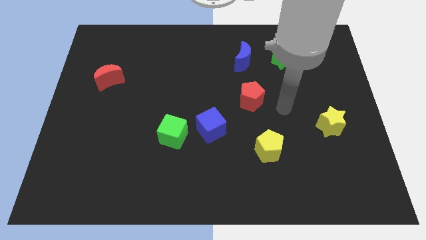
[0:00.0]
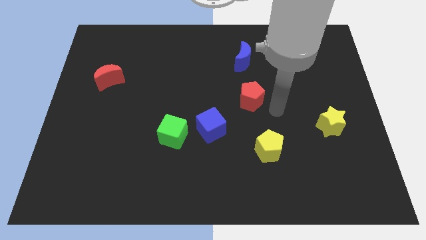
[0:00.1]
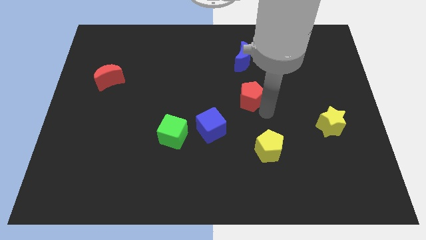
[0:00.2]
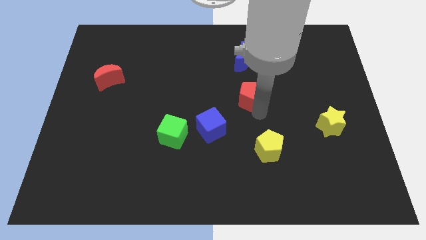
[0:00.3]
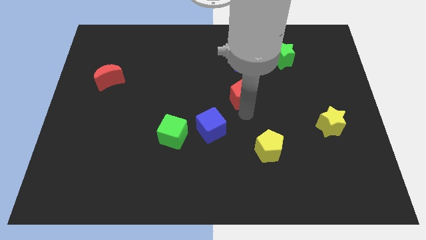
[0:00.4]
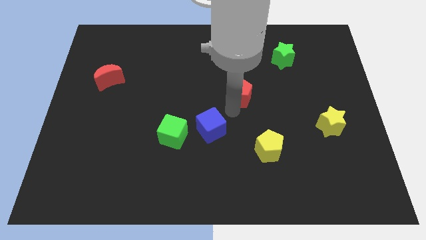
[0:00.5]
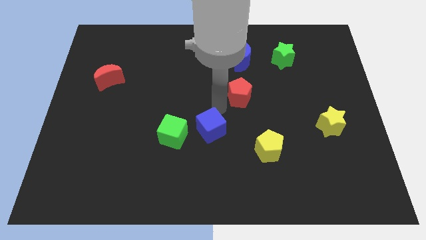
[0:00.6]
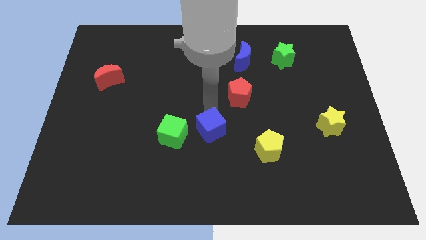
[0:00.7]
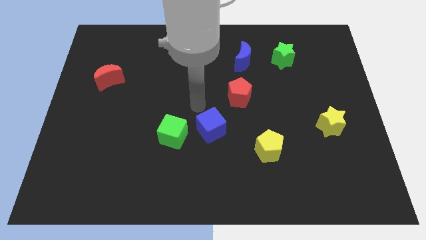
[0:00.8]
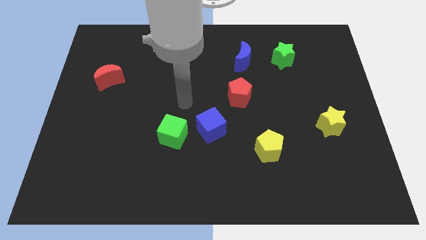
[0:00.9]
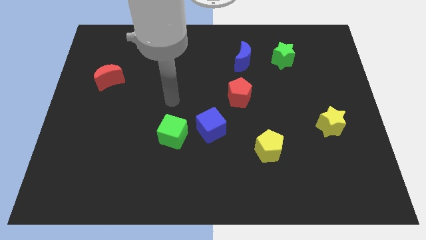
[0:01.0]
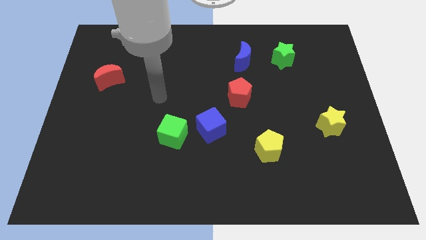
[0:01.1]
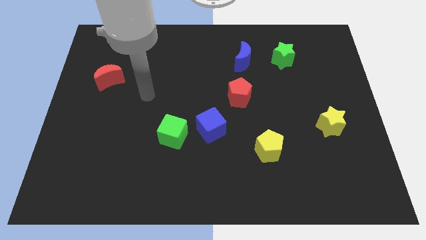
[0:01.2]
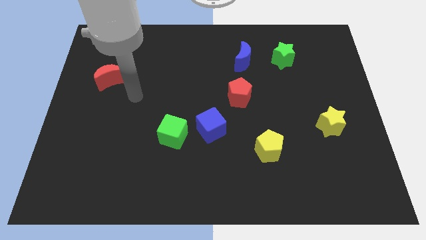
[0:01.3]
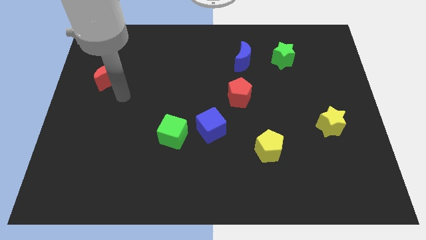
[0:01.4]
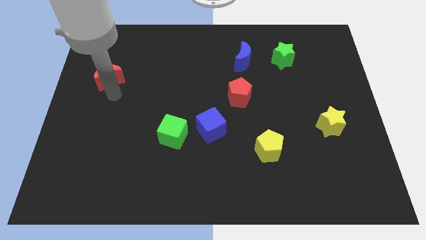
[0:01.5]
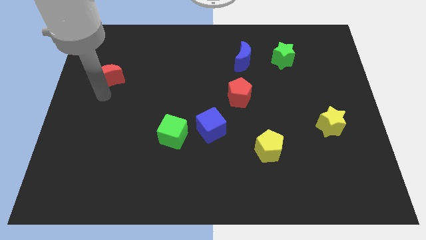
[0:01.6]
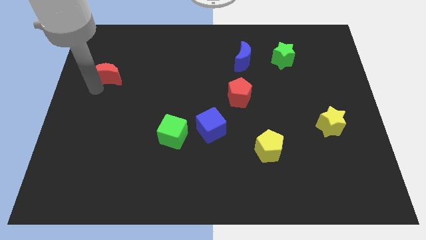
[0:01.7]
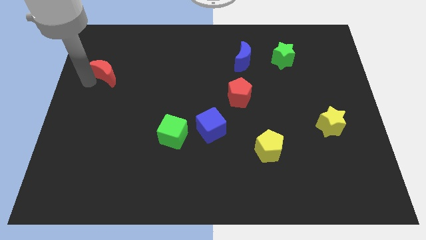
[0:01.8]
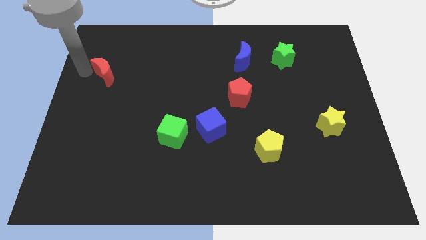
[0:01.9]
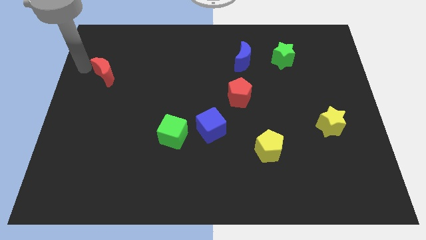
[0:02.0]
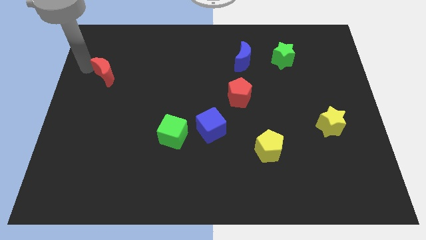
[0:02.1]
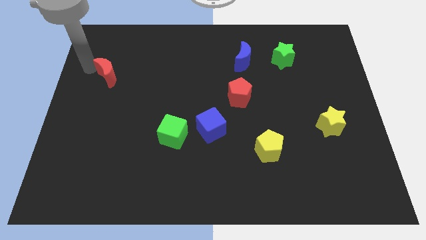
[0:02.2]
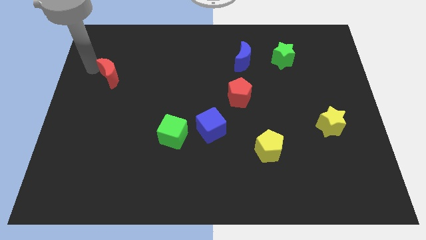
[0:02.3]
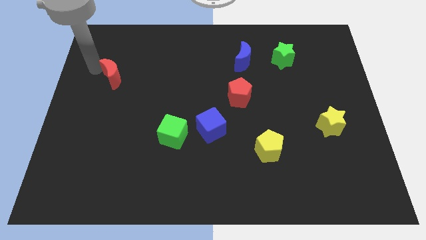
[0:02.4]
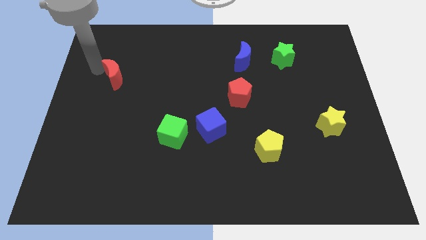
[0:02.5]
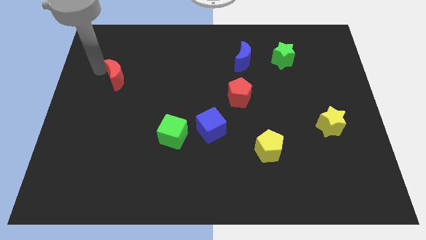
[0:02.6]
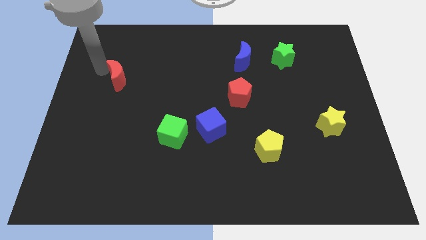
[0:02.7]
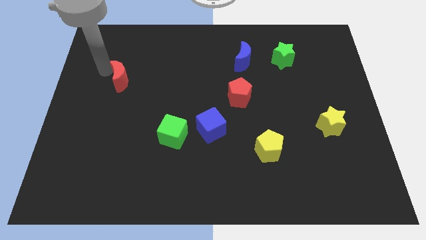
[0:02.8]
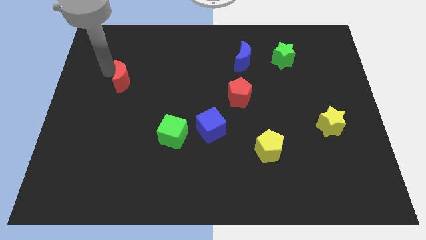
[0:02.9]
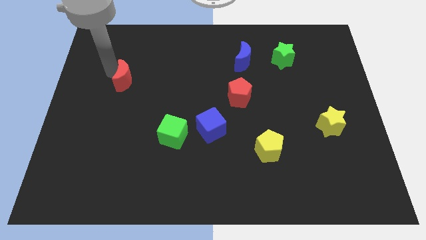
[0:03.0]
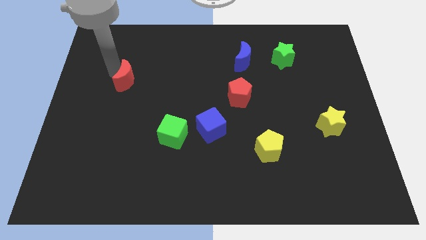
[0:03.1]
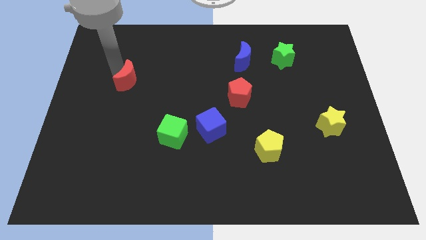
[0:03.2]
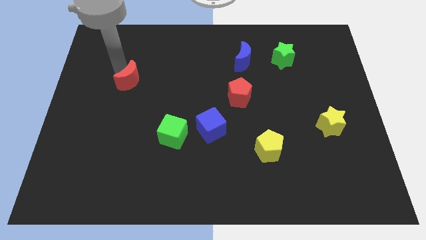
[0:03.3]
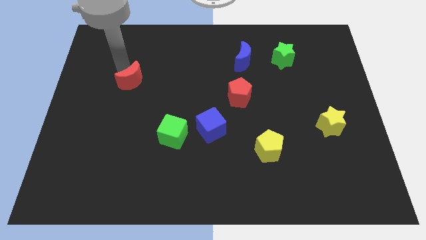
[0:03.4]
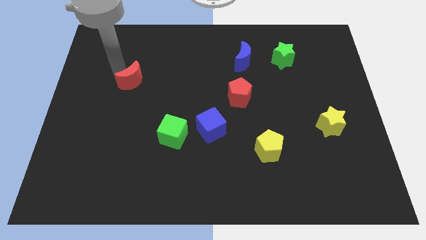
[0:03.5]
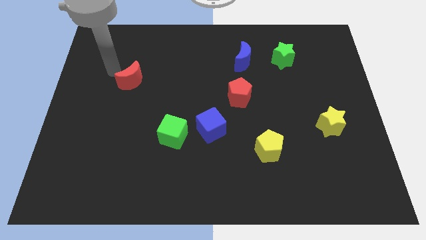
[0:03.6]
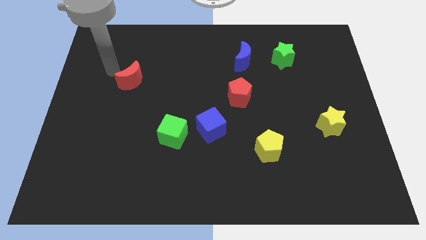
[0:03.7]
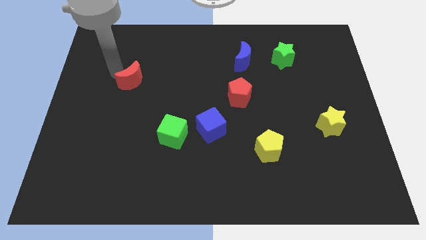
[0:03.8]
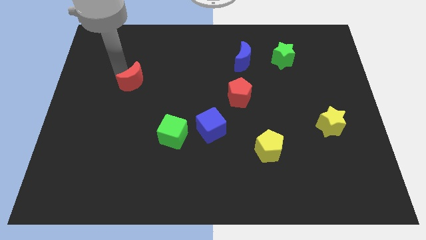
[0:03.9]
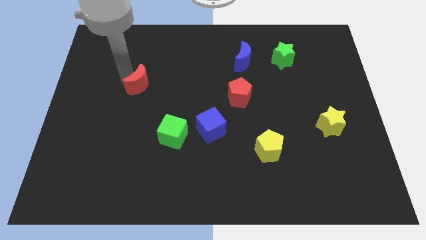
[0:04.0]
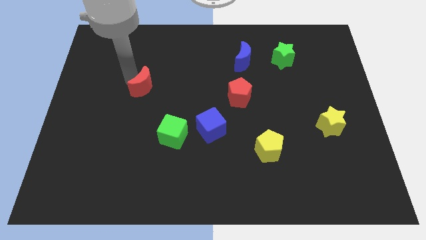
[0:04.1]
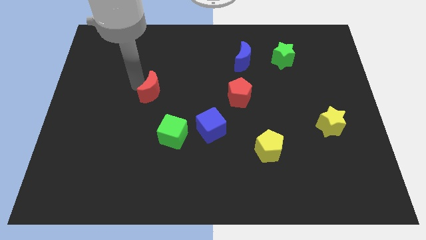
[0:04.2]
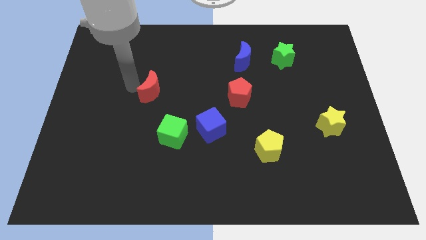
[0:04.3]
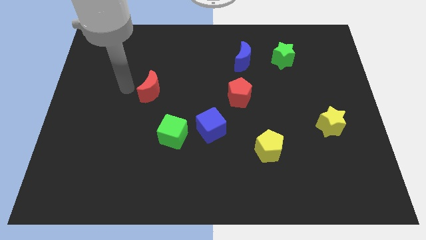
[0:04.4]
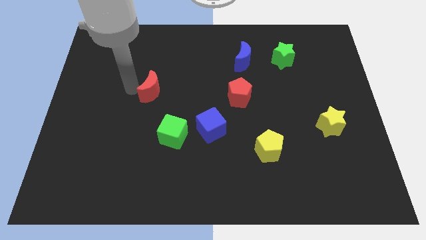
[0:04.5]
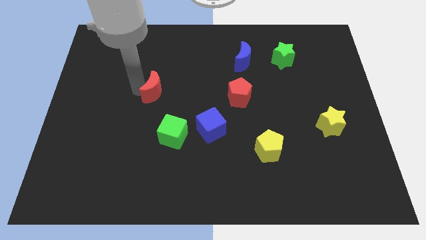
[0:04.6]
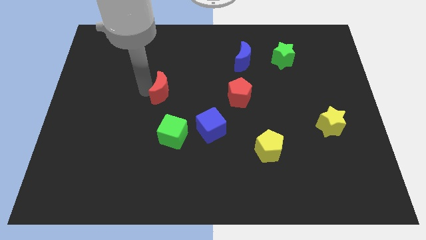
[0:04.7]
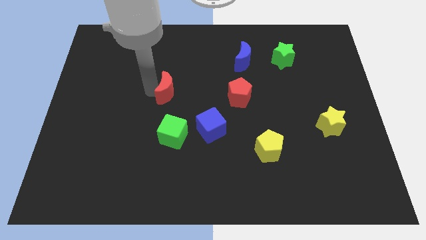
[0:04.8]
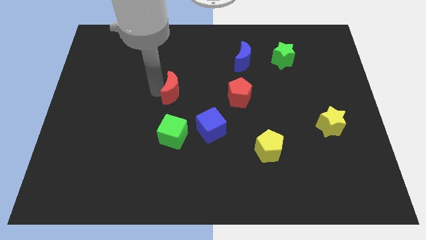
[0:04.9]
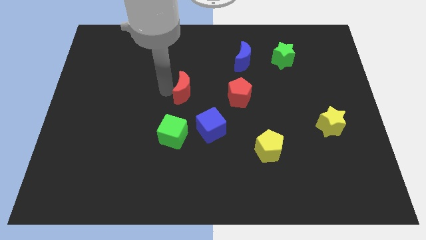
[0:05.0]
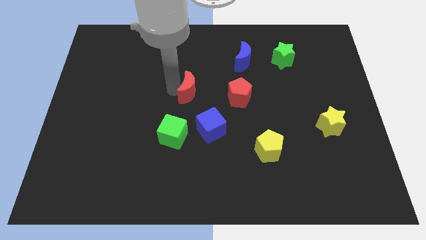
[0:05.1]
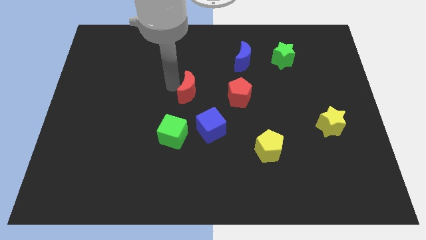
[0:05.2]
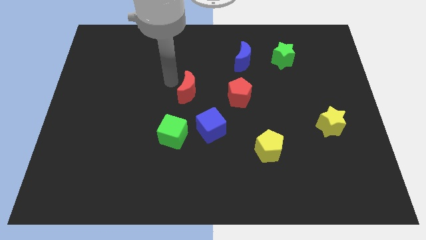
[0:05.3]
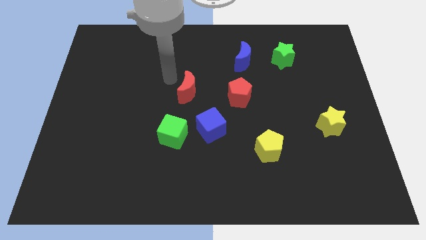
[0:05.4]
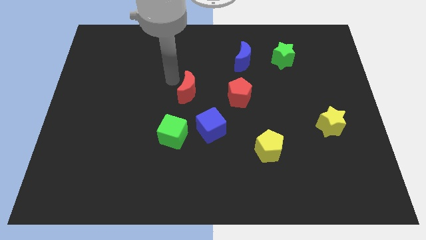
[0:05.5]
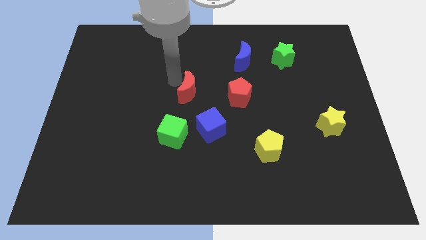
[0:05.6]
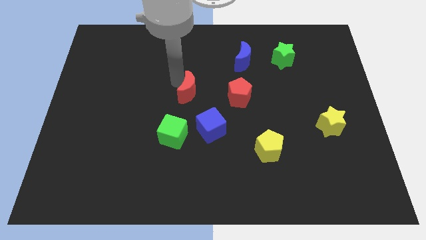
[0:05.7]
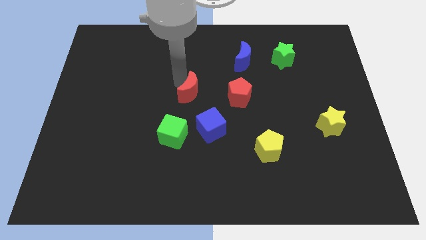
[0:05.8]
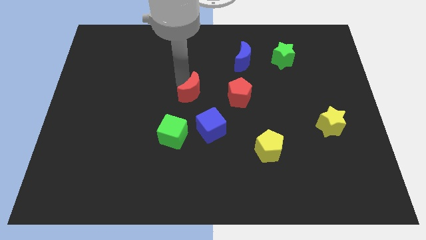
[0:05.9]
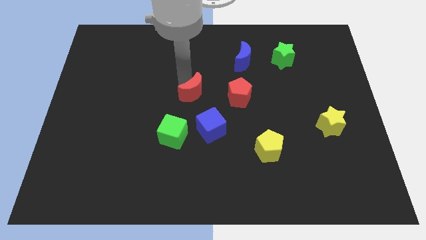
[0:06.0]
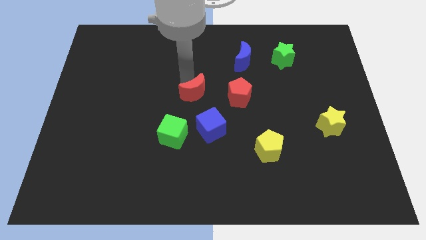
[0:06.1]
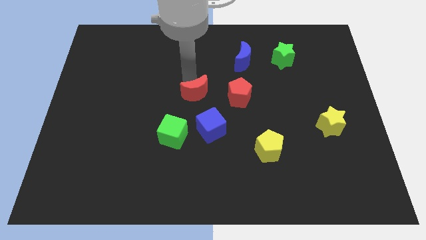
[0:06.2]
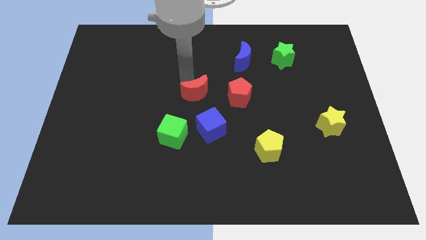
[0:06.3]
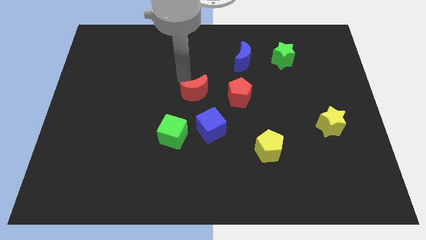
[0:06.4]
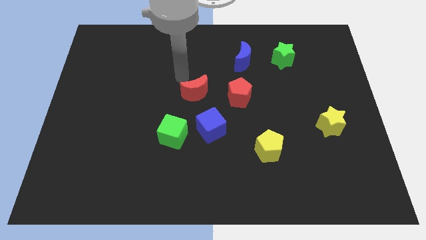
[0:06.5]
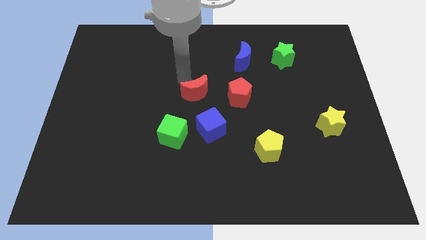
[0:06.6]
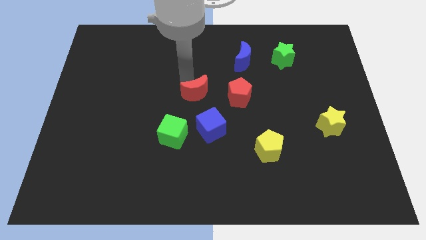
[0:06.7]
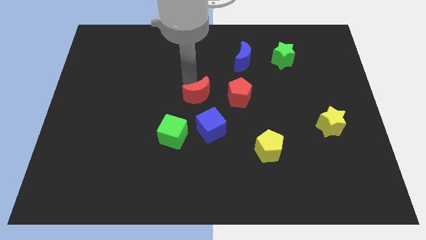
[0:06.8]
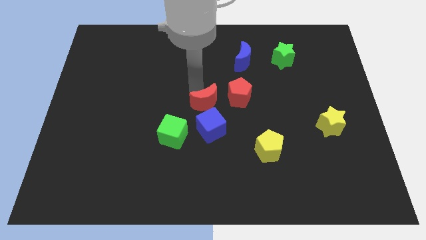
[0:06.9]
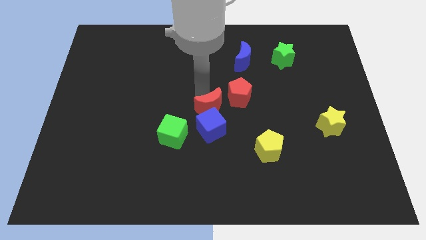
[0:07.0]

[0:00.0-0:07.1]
slide the red moon close to the blue cube
